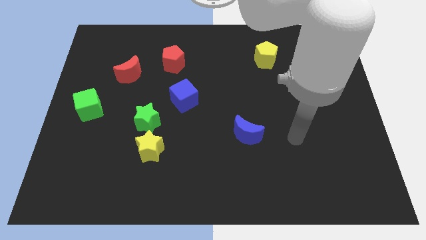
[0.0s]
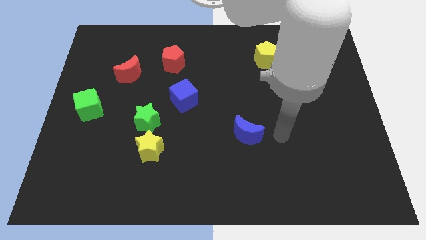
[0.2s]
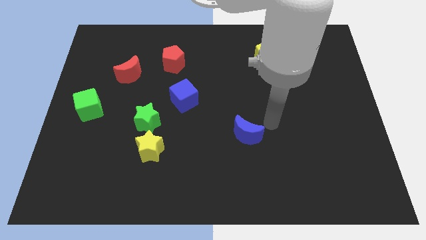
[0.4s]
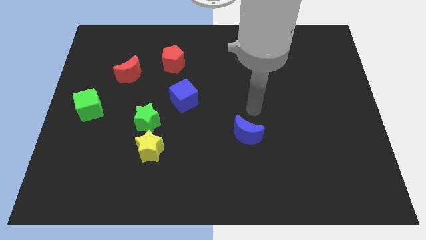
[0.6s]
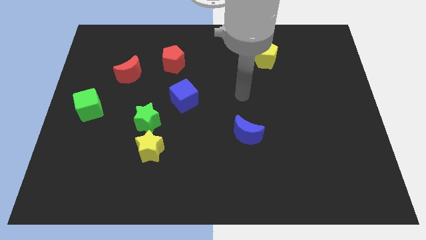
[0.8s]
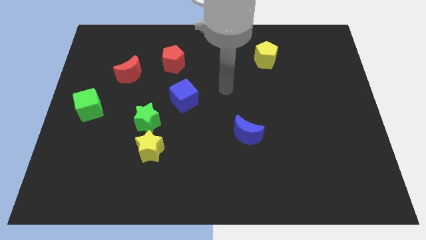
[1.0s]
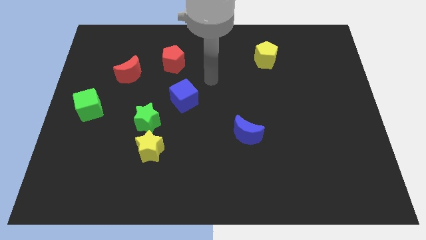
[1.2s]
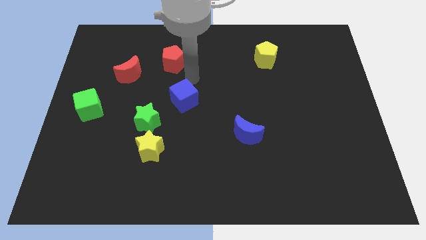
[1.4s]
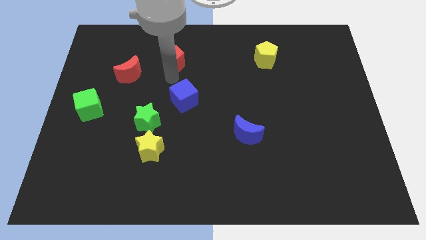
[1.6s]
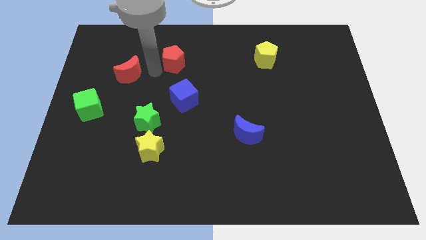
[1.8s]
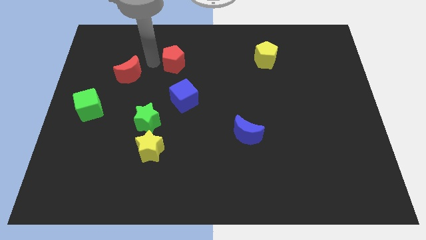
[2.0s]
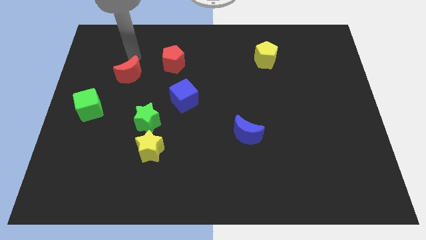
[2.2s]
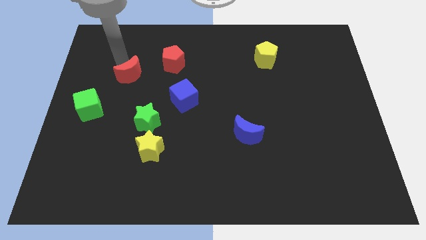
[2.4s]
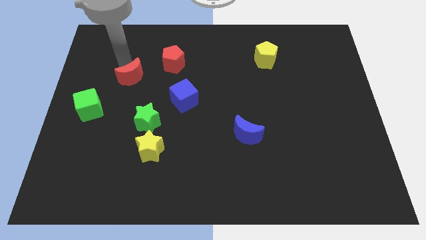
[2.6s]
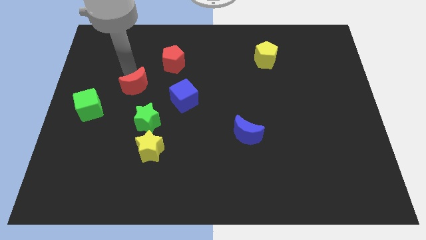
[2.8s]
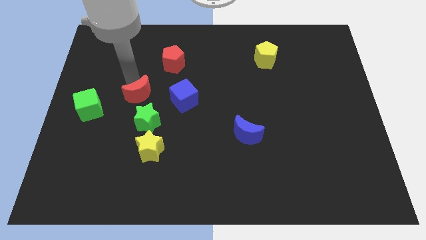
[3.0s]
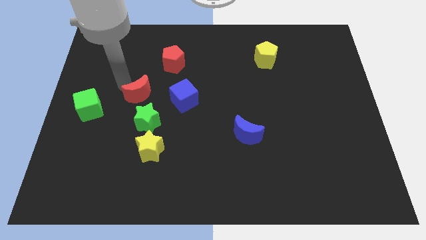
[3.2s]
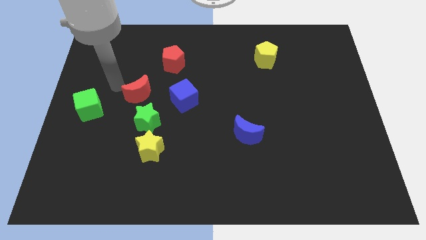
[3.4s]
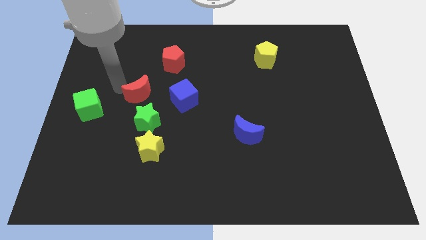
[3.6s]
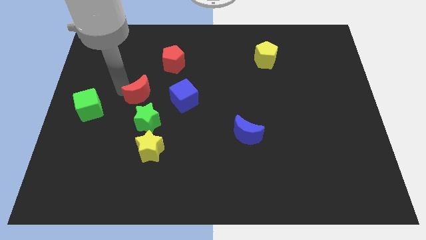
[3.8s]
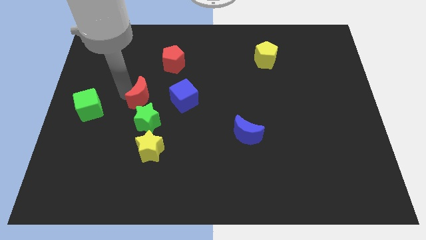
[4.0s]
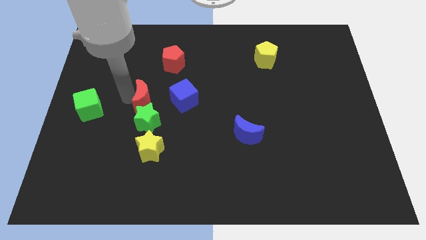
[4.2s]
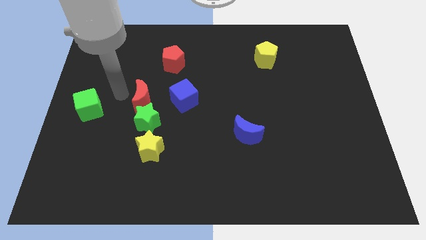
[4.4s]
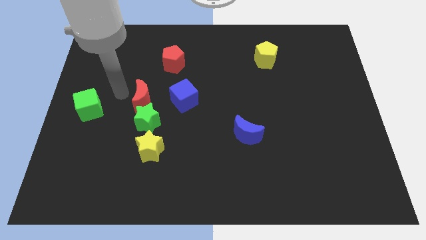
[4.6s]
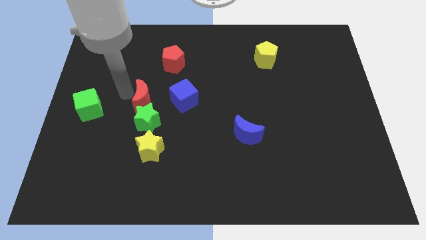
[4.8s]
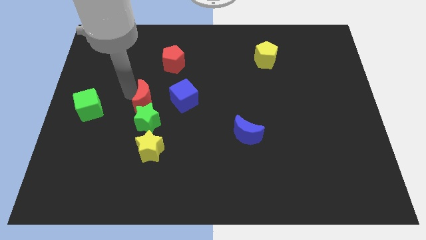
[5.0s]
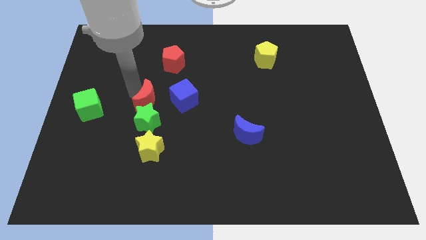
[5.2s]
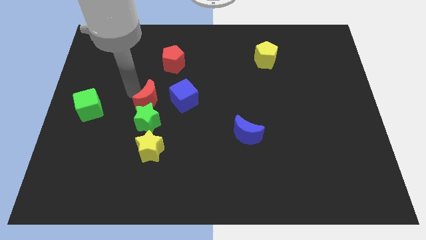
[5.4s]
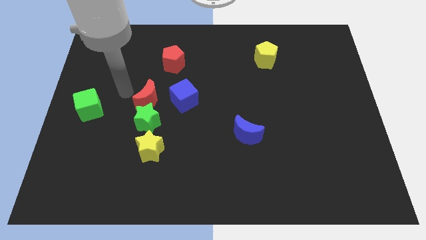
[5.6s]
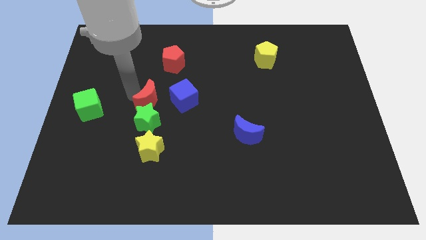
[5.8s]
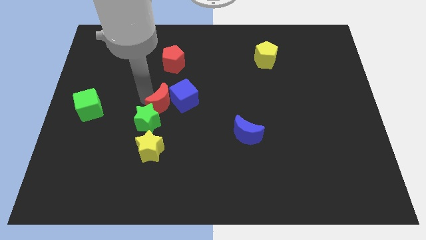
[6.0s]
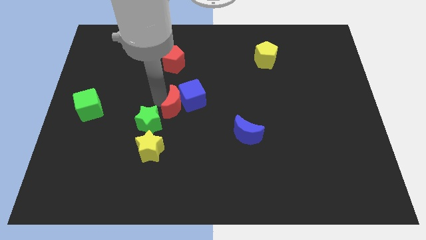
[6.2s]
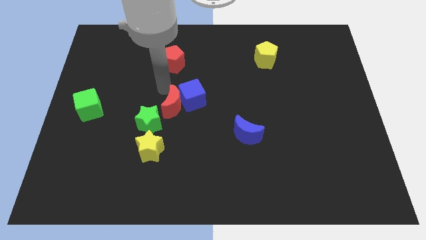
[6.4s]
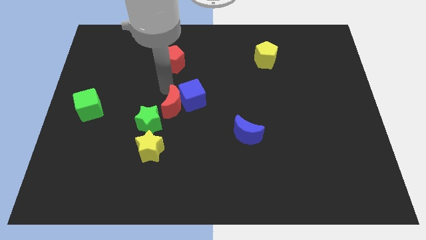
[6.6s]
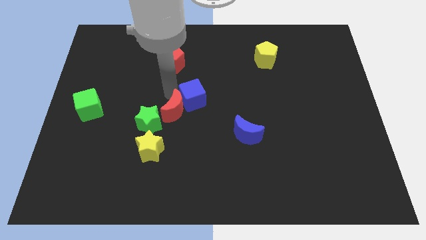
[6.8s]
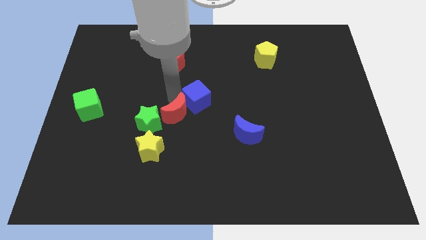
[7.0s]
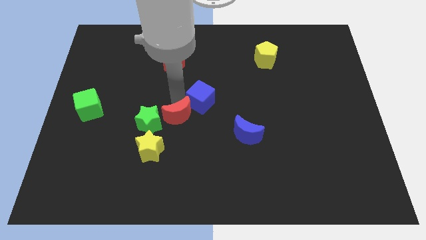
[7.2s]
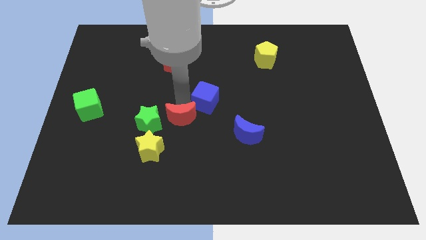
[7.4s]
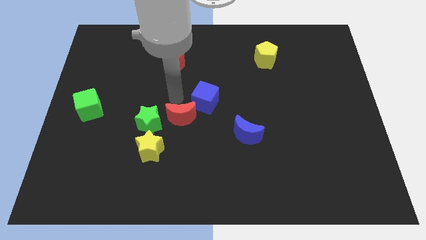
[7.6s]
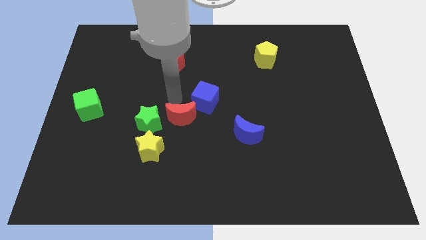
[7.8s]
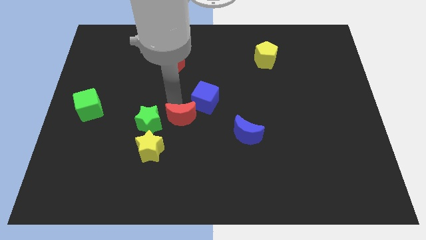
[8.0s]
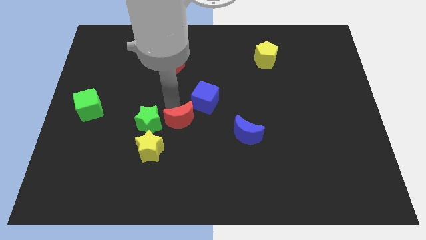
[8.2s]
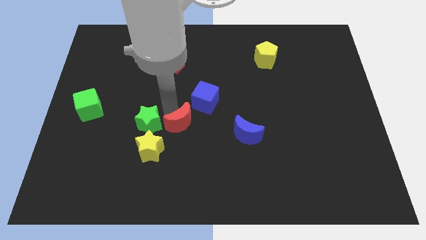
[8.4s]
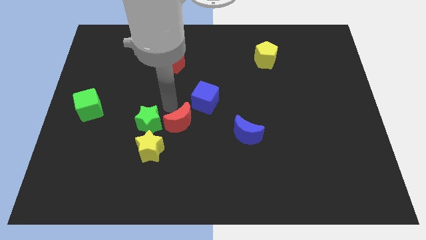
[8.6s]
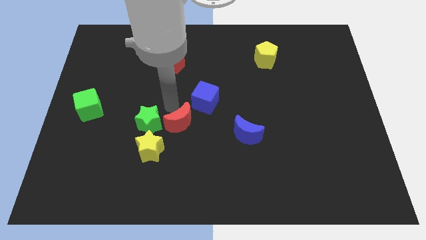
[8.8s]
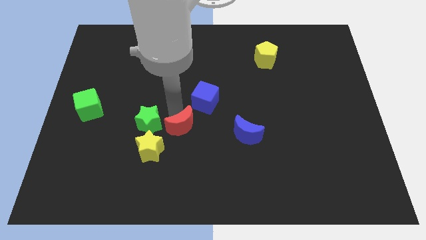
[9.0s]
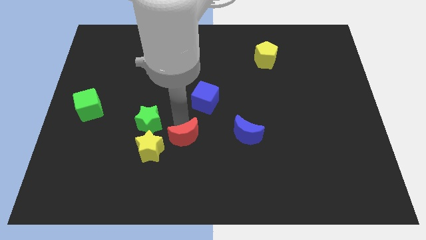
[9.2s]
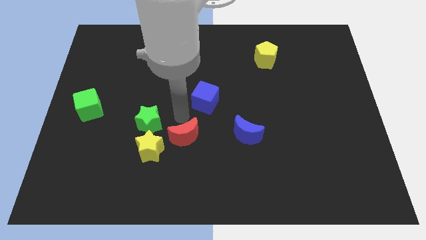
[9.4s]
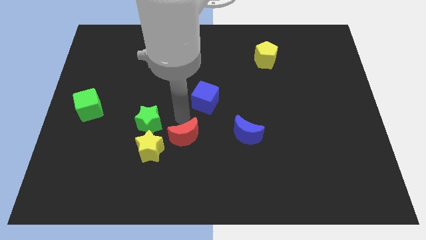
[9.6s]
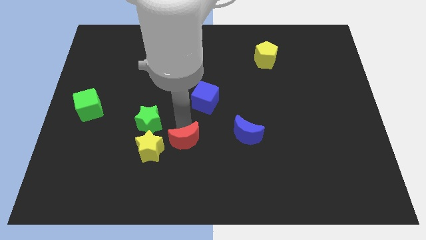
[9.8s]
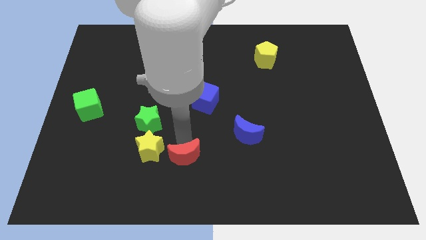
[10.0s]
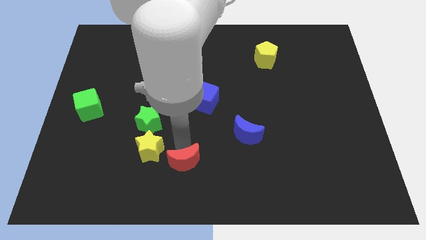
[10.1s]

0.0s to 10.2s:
slide the red moon to the bottom

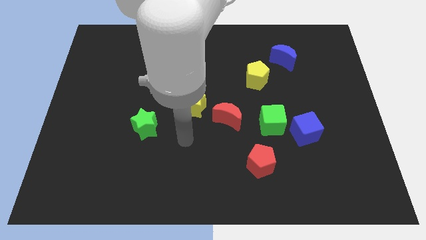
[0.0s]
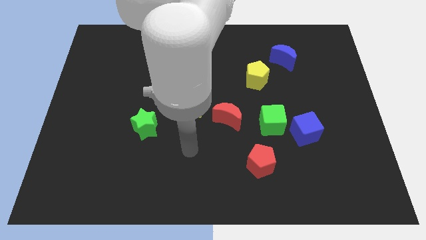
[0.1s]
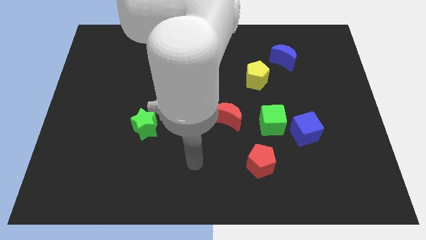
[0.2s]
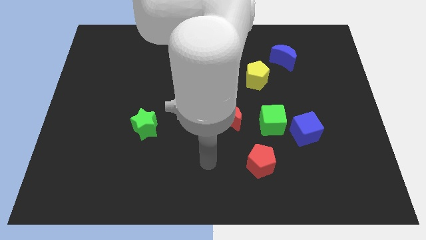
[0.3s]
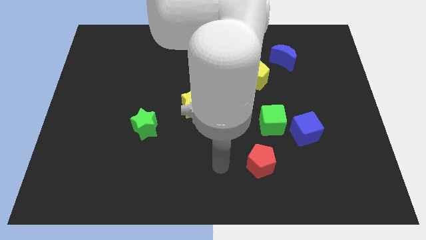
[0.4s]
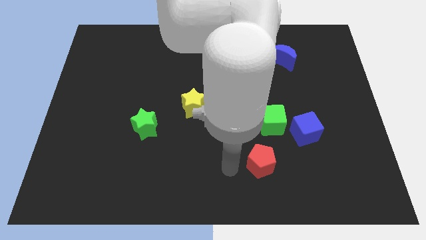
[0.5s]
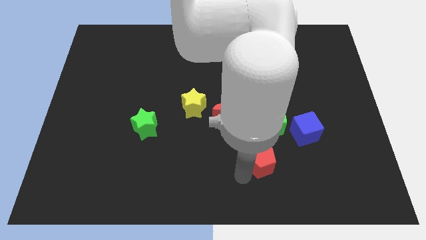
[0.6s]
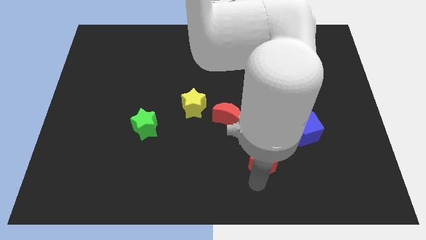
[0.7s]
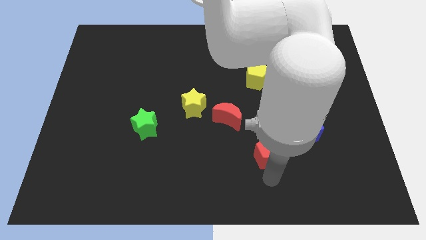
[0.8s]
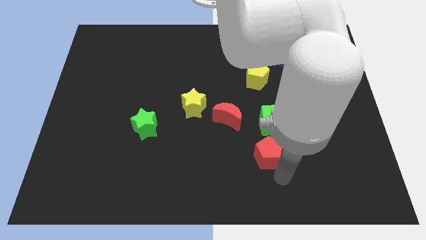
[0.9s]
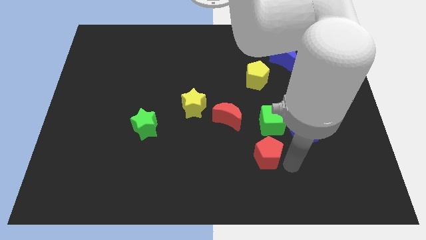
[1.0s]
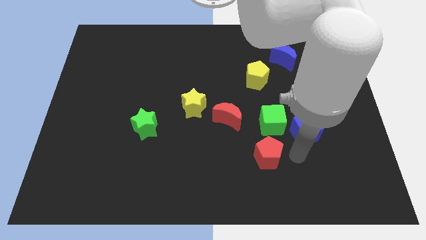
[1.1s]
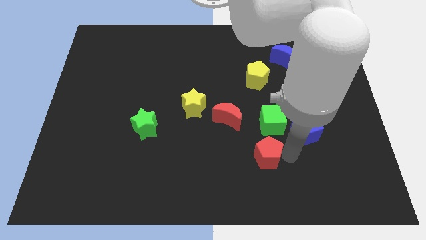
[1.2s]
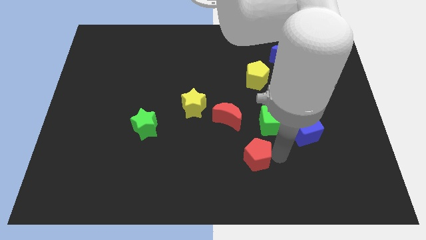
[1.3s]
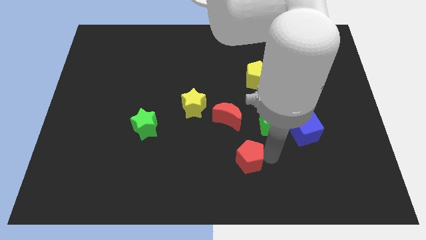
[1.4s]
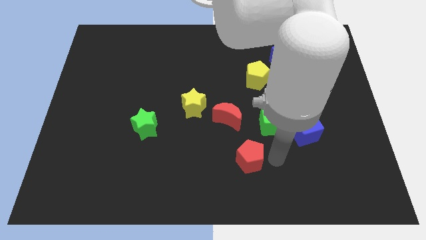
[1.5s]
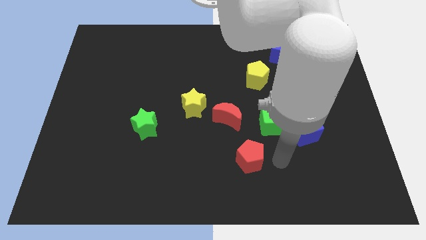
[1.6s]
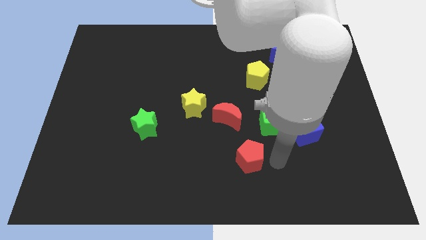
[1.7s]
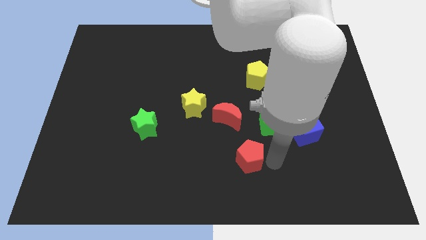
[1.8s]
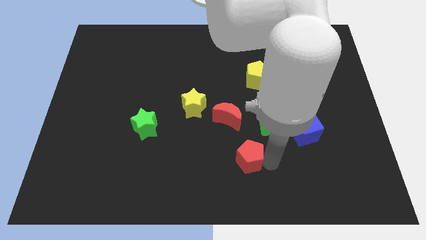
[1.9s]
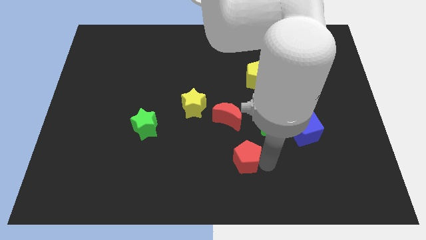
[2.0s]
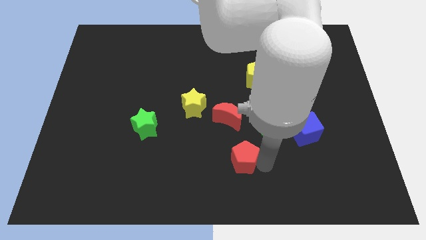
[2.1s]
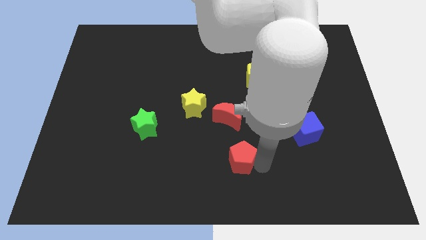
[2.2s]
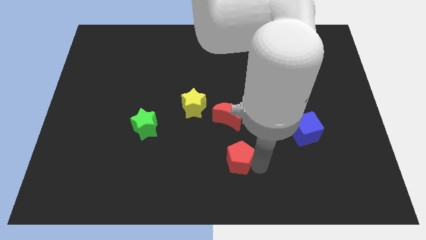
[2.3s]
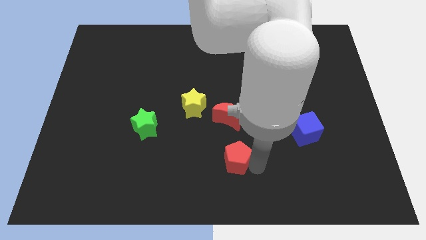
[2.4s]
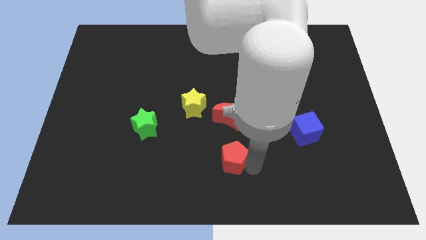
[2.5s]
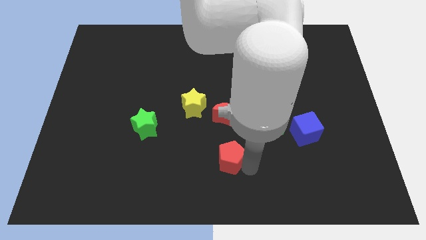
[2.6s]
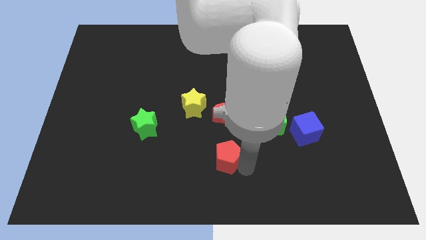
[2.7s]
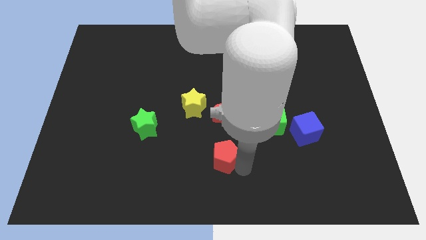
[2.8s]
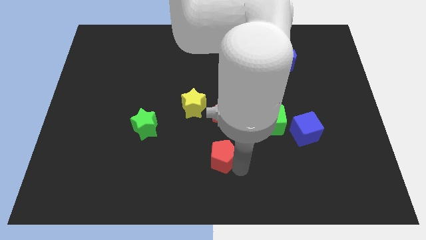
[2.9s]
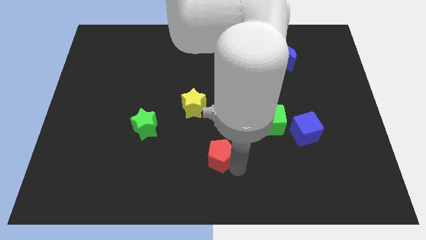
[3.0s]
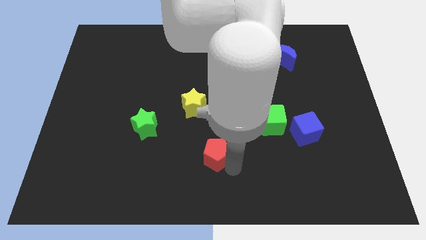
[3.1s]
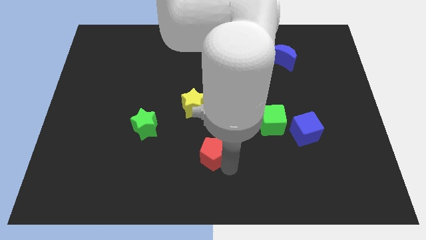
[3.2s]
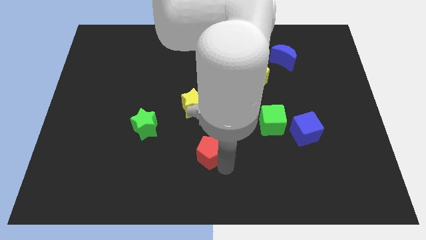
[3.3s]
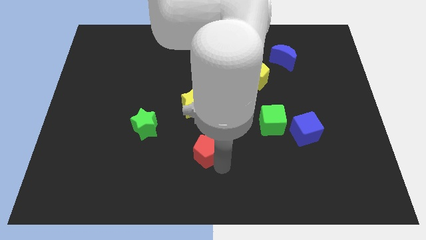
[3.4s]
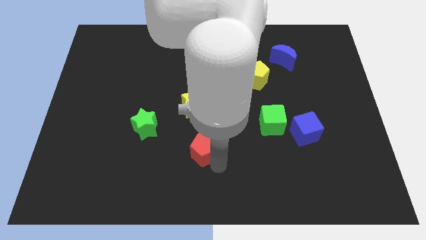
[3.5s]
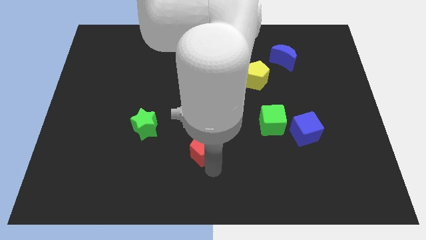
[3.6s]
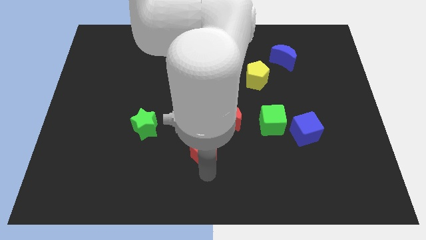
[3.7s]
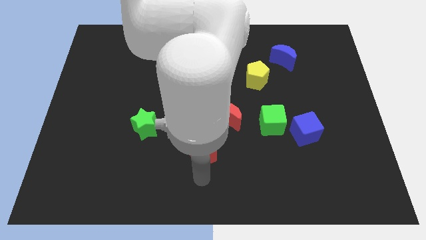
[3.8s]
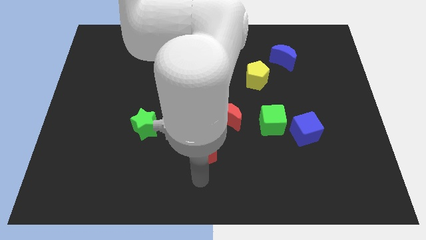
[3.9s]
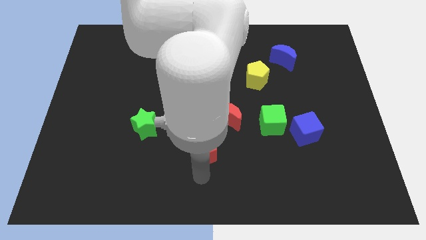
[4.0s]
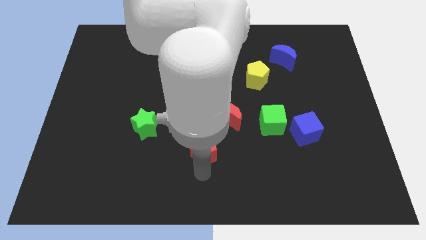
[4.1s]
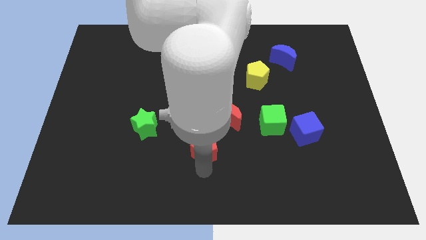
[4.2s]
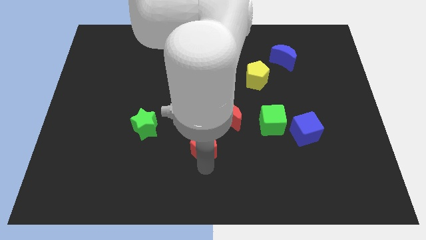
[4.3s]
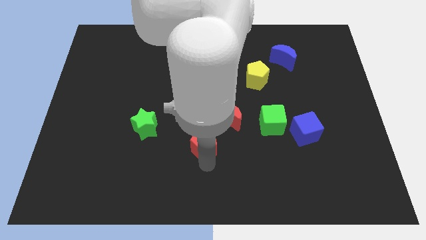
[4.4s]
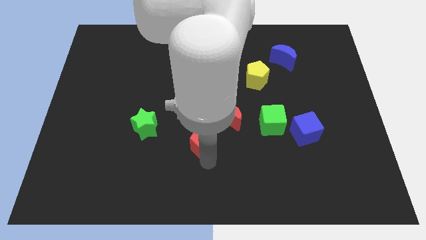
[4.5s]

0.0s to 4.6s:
slide the red pentagon to the middle of the board
